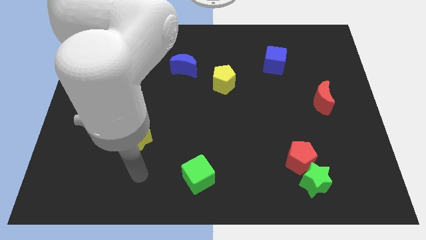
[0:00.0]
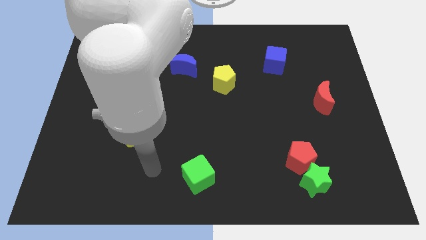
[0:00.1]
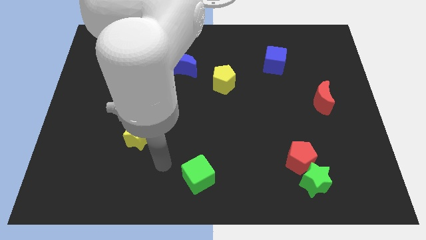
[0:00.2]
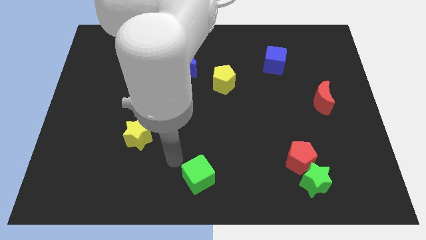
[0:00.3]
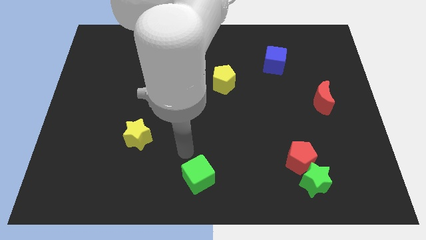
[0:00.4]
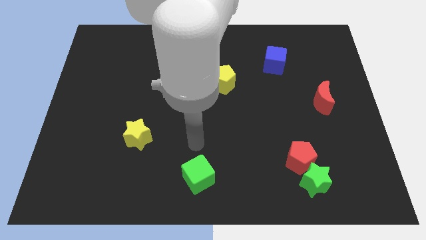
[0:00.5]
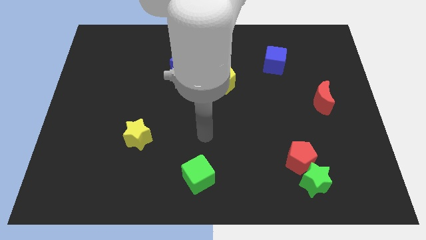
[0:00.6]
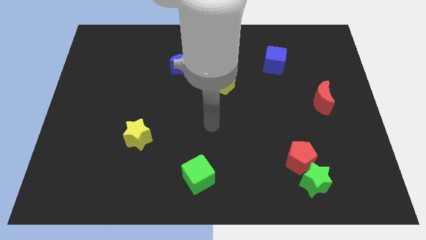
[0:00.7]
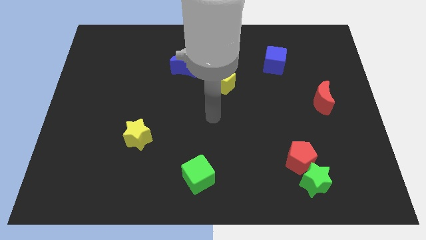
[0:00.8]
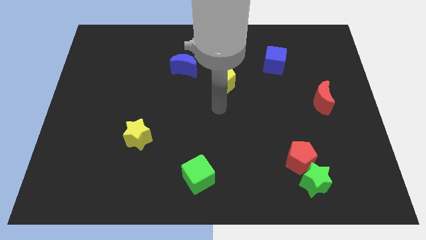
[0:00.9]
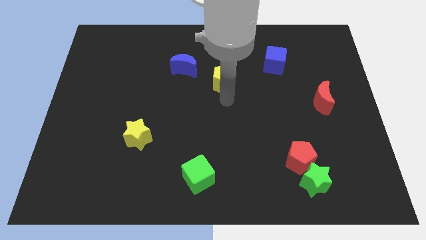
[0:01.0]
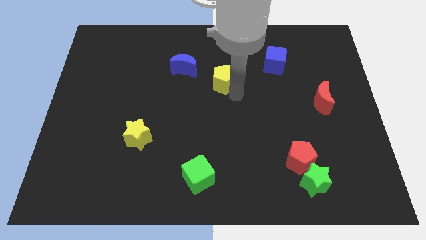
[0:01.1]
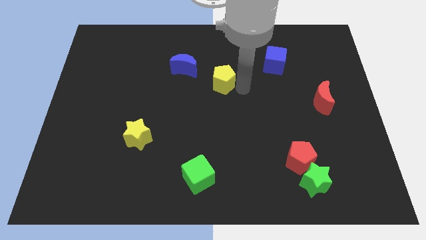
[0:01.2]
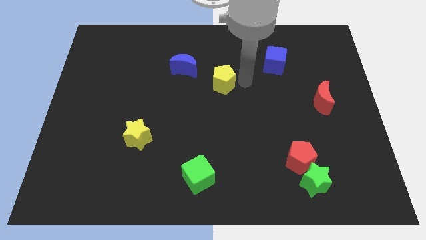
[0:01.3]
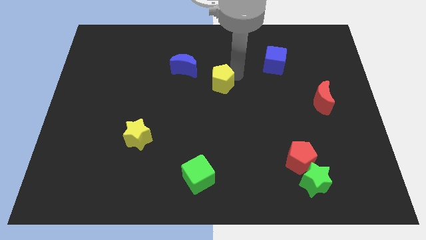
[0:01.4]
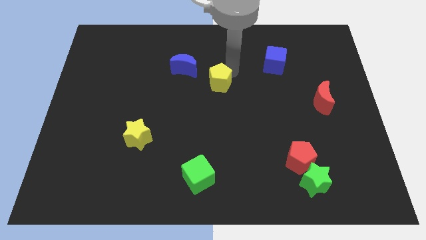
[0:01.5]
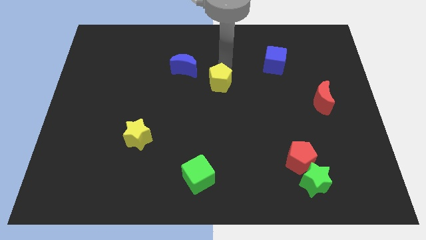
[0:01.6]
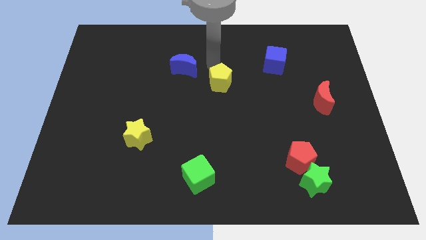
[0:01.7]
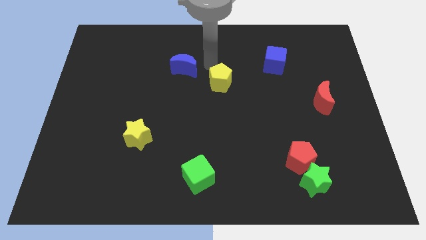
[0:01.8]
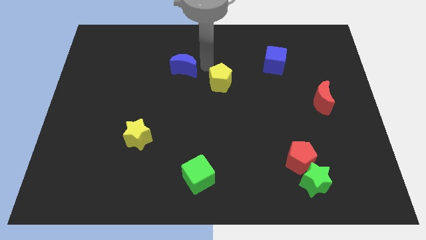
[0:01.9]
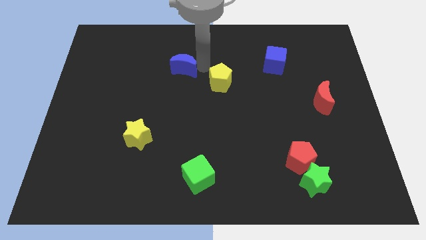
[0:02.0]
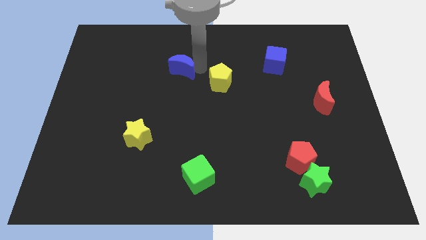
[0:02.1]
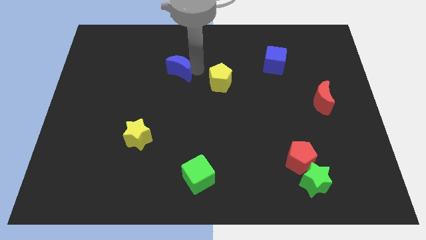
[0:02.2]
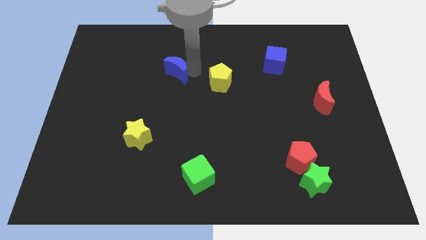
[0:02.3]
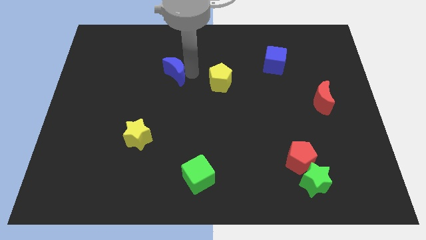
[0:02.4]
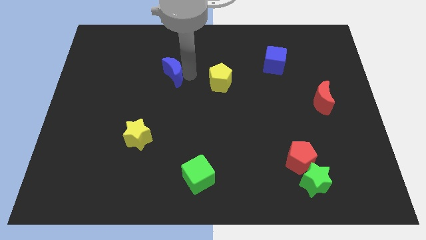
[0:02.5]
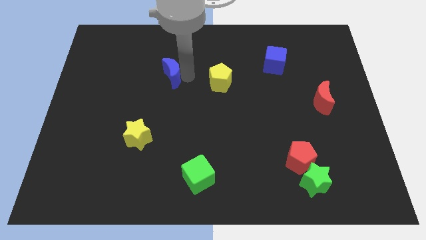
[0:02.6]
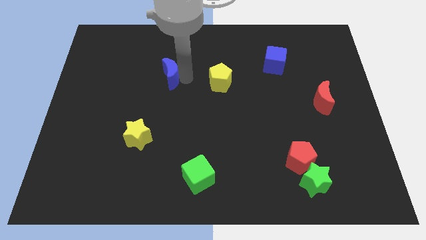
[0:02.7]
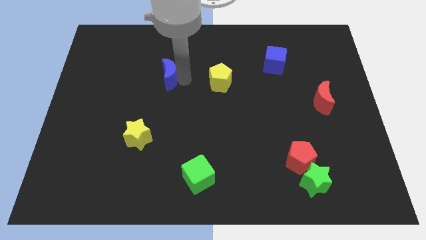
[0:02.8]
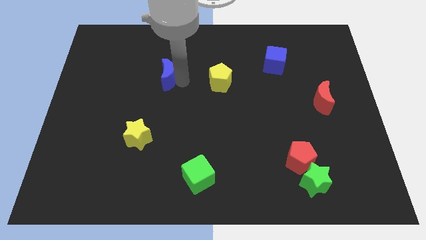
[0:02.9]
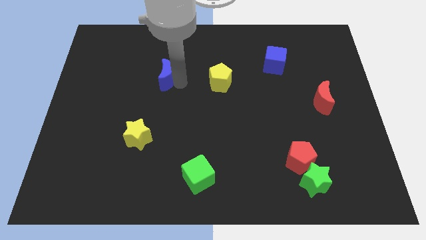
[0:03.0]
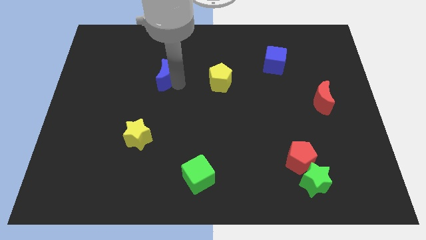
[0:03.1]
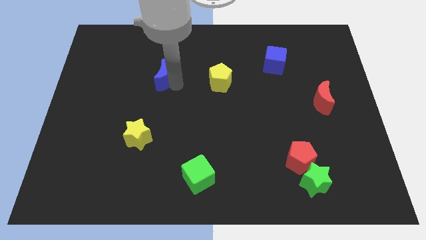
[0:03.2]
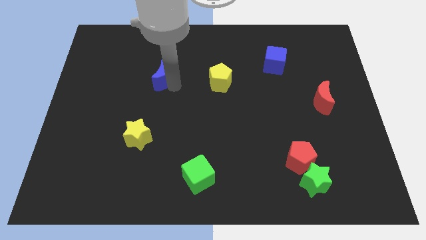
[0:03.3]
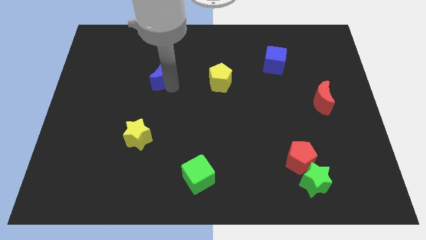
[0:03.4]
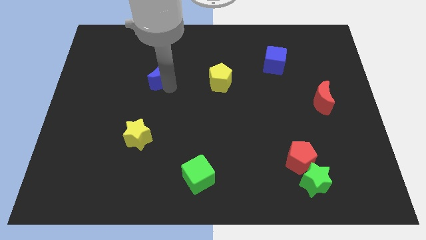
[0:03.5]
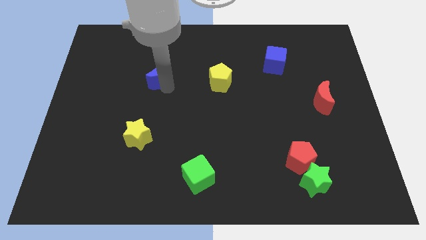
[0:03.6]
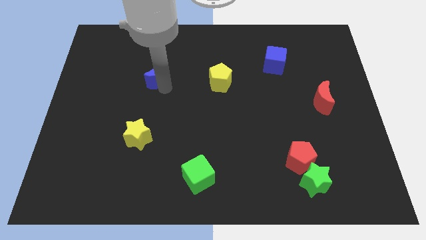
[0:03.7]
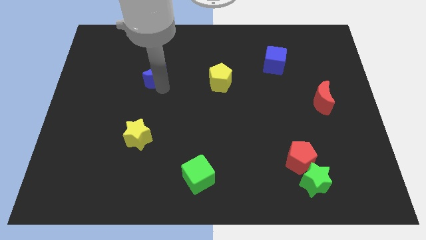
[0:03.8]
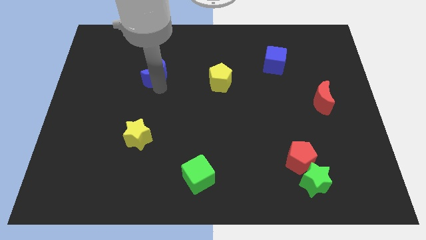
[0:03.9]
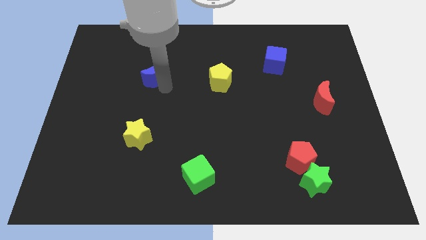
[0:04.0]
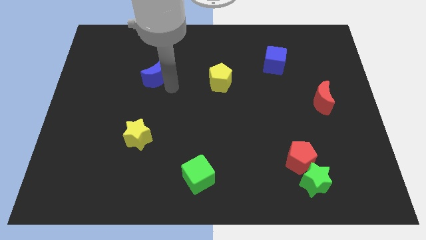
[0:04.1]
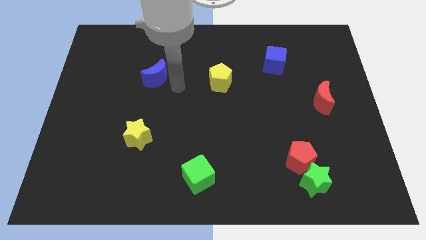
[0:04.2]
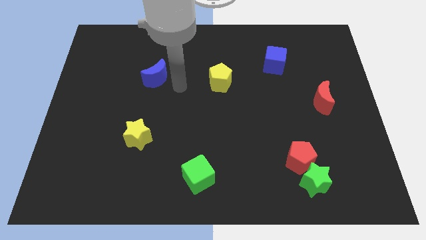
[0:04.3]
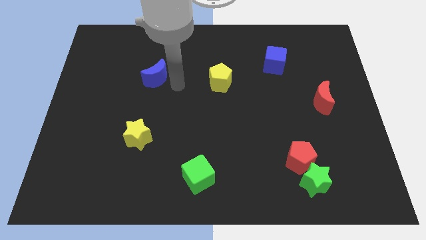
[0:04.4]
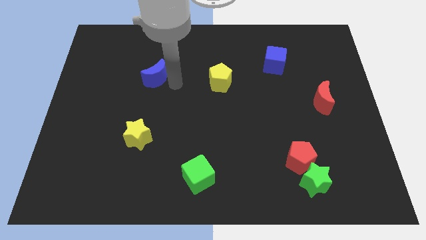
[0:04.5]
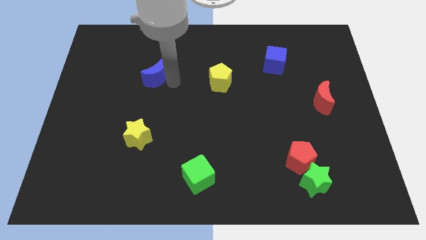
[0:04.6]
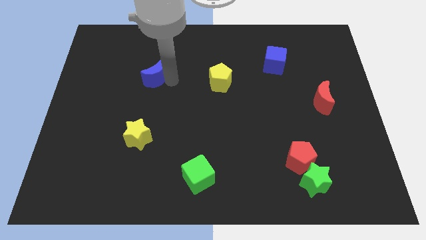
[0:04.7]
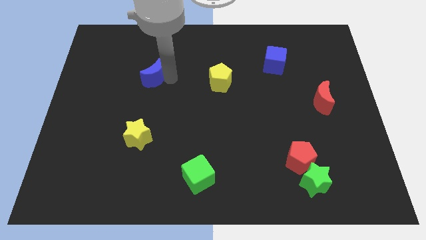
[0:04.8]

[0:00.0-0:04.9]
slightly push the blue moon to the left

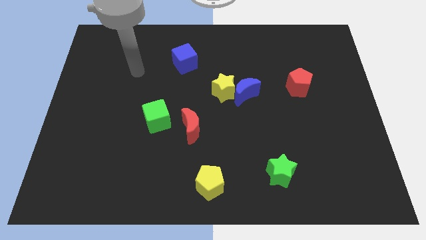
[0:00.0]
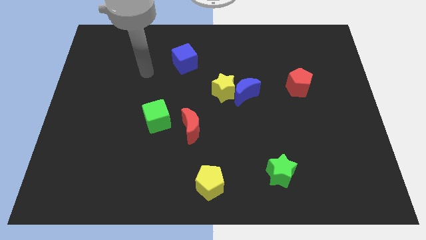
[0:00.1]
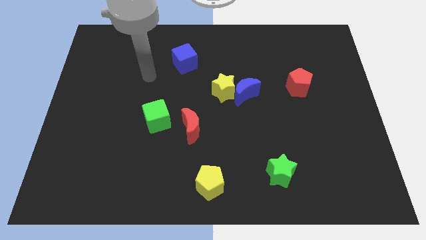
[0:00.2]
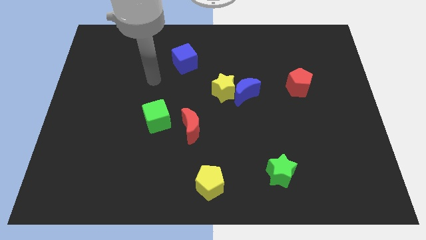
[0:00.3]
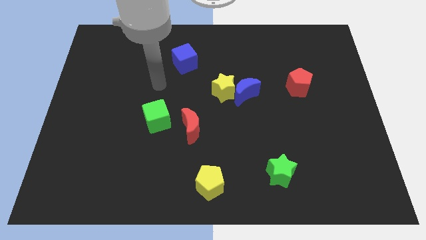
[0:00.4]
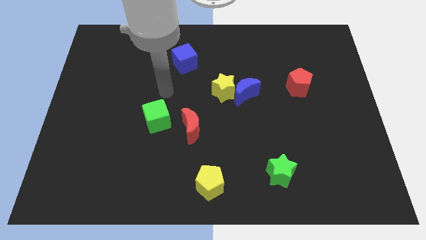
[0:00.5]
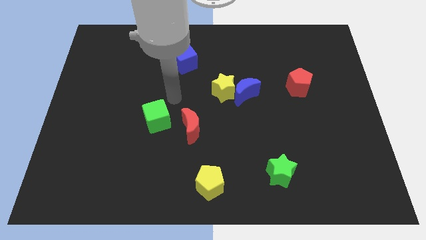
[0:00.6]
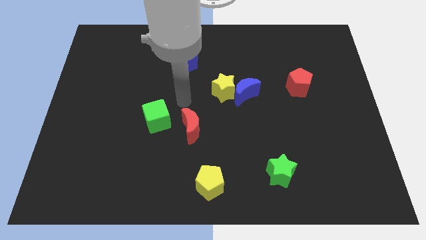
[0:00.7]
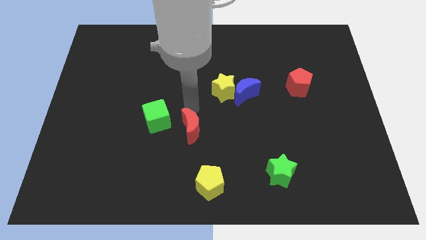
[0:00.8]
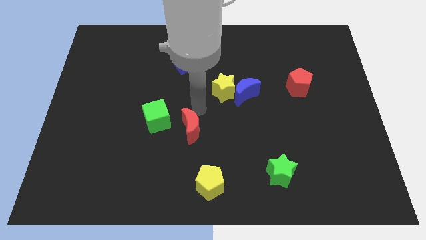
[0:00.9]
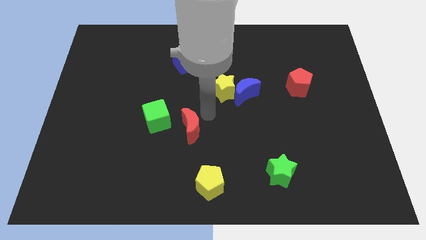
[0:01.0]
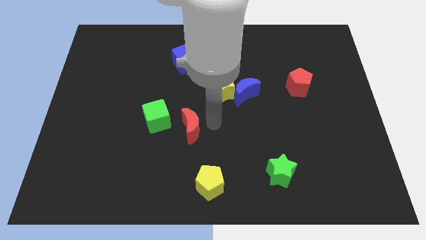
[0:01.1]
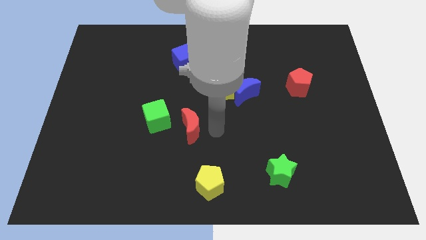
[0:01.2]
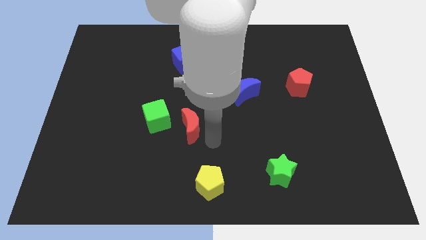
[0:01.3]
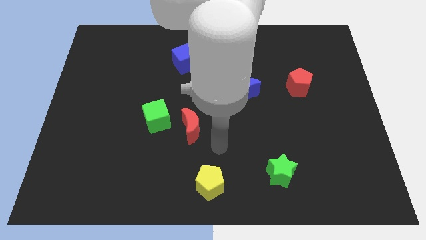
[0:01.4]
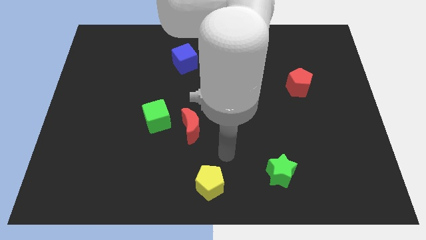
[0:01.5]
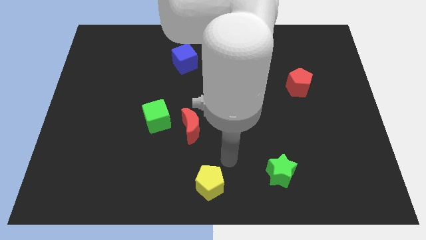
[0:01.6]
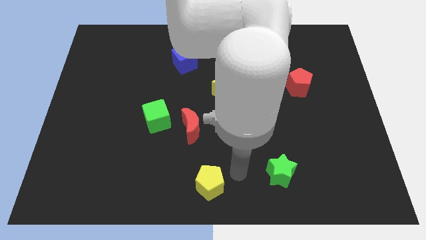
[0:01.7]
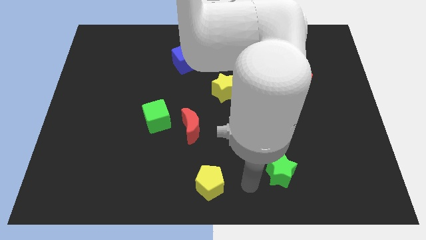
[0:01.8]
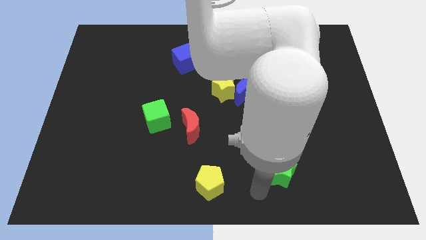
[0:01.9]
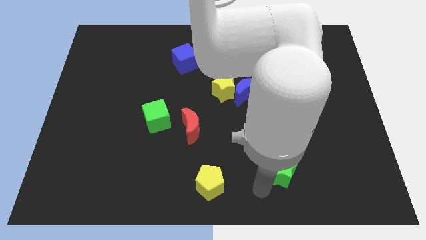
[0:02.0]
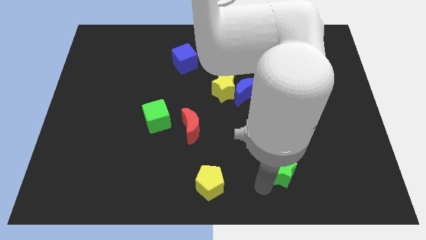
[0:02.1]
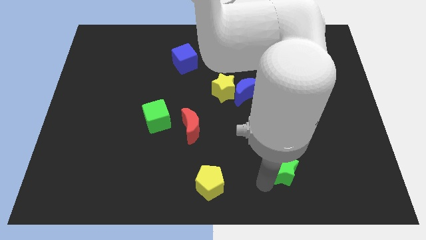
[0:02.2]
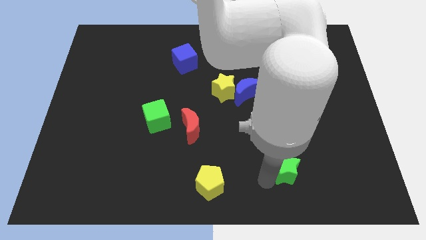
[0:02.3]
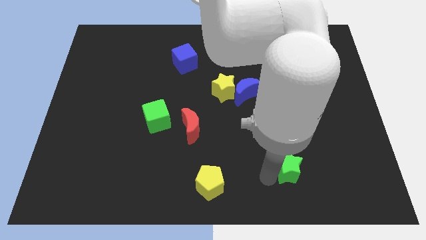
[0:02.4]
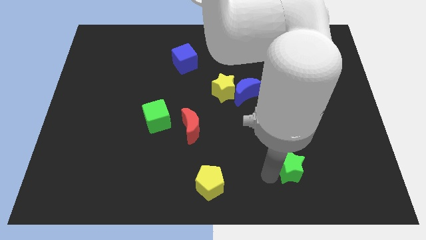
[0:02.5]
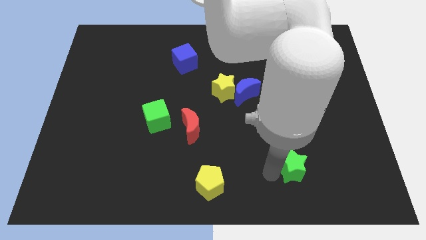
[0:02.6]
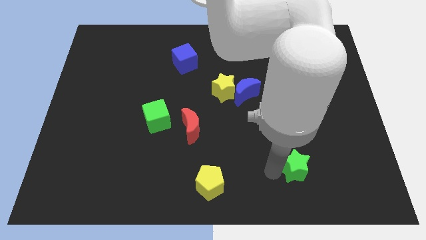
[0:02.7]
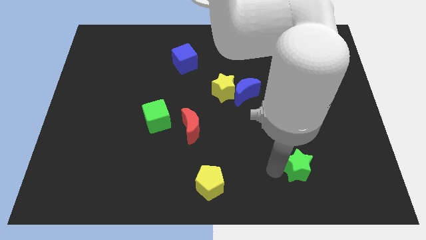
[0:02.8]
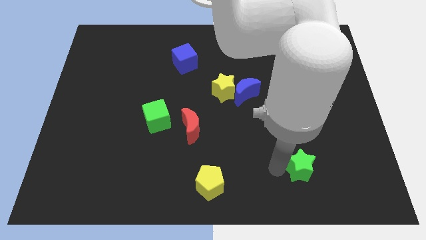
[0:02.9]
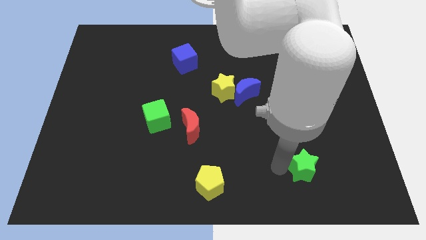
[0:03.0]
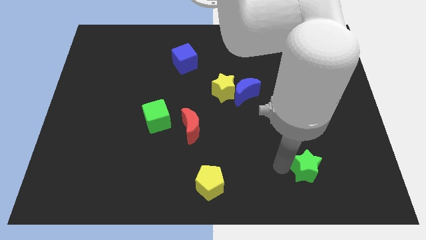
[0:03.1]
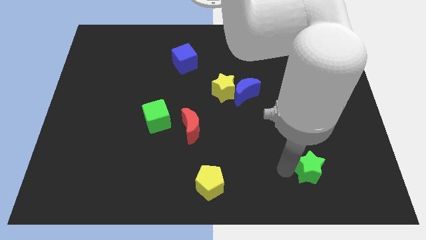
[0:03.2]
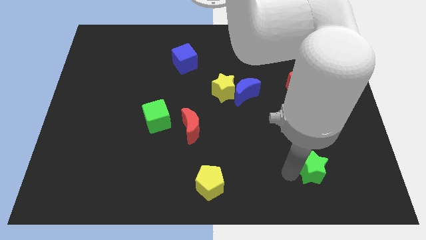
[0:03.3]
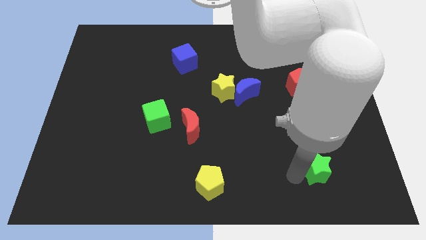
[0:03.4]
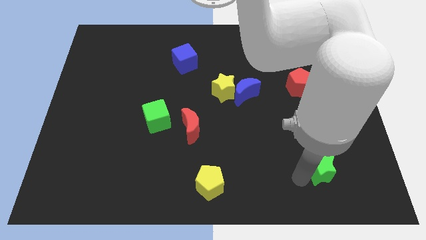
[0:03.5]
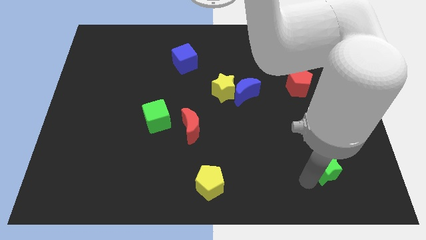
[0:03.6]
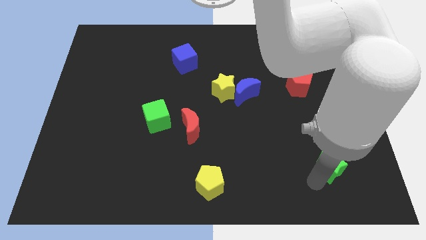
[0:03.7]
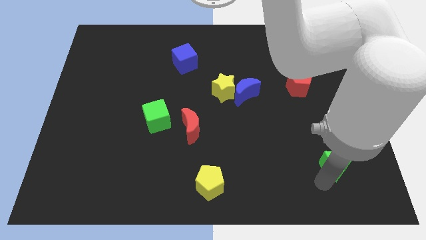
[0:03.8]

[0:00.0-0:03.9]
slightly move the green star upwards and right
